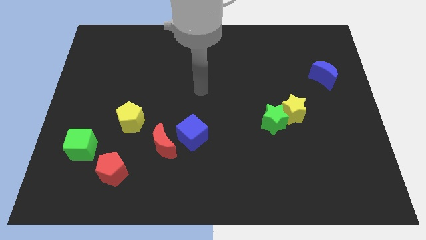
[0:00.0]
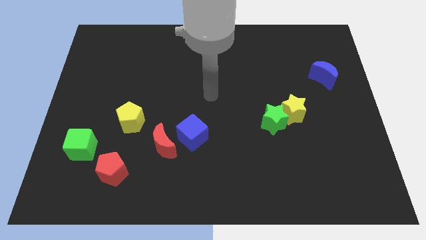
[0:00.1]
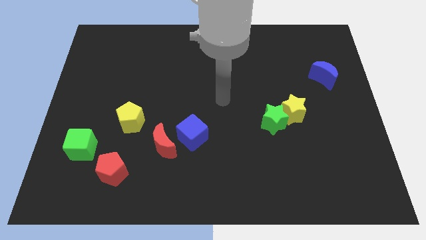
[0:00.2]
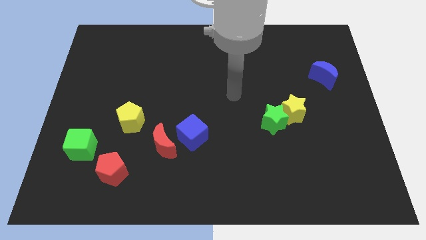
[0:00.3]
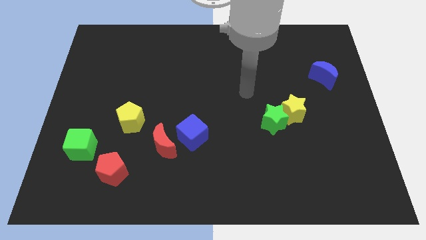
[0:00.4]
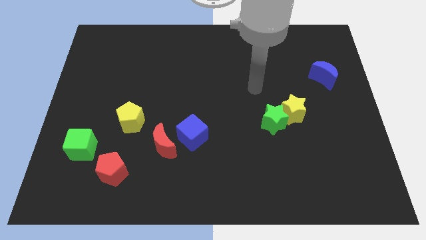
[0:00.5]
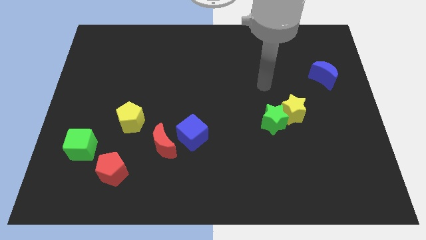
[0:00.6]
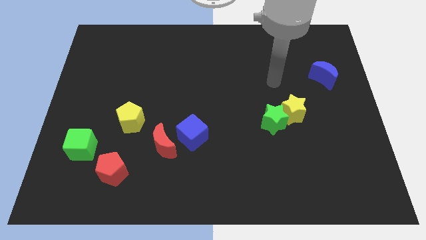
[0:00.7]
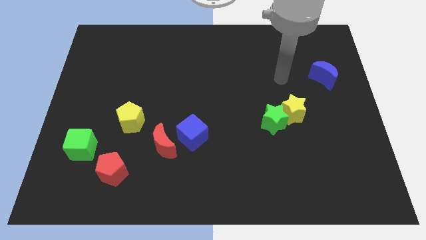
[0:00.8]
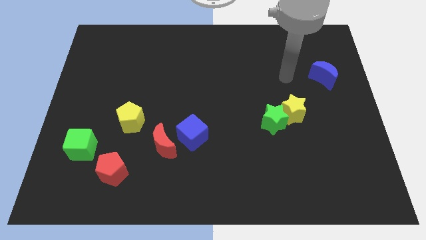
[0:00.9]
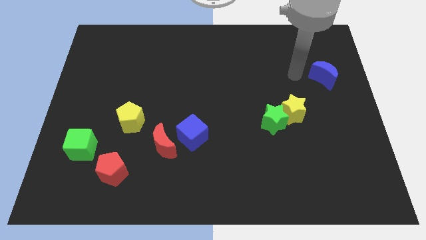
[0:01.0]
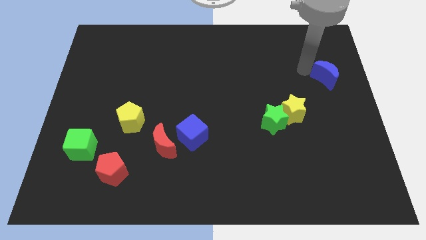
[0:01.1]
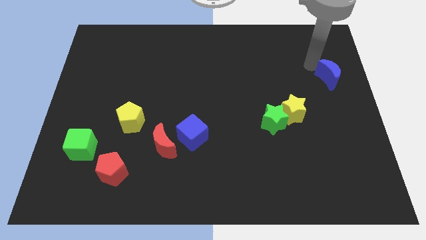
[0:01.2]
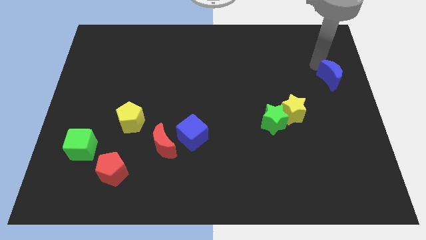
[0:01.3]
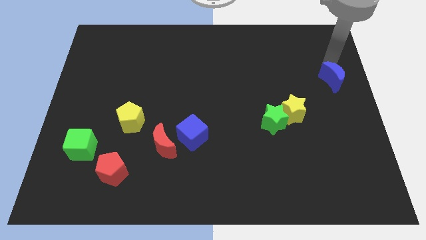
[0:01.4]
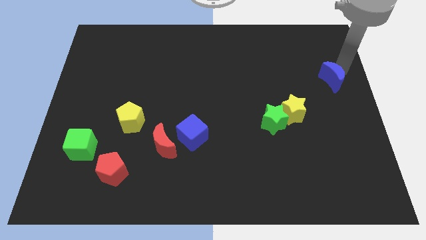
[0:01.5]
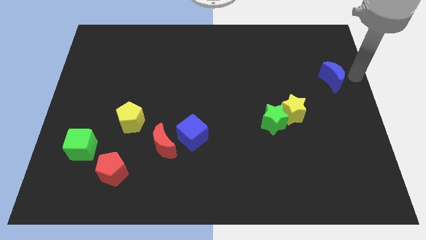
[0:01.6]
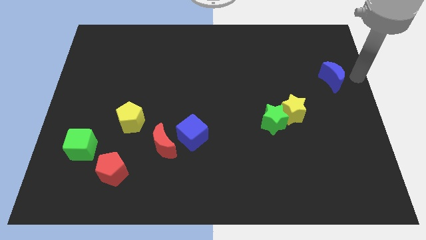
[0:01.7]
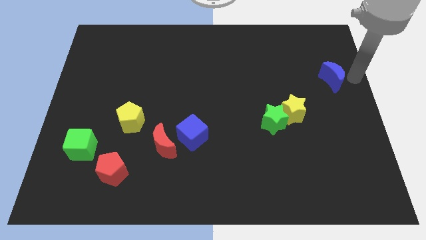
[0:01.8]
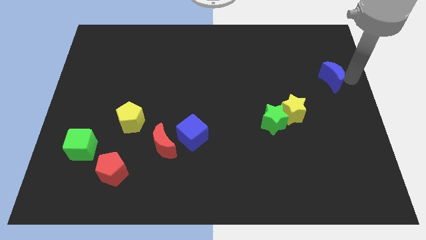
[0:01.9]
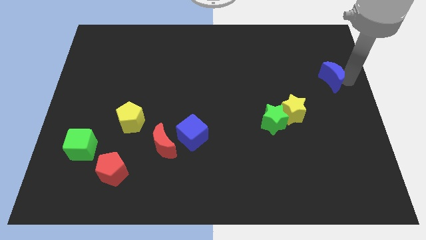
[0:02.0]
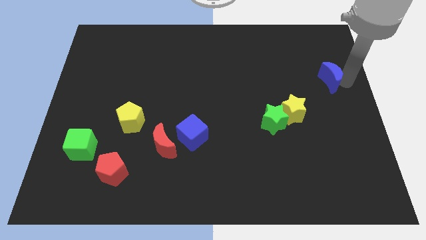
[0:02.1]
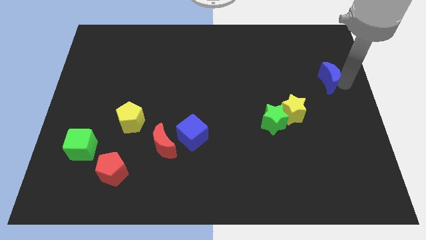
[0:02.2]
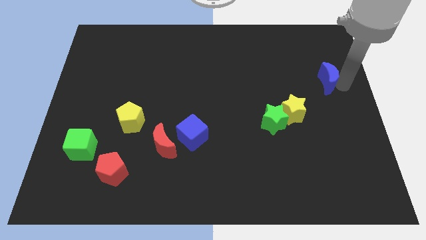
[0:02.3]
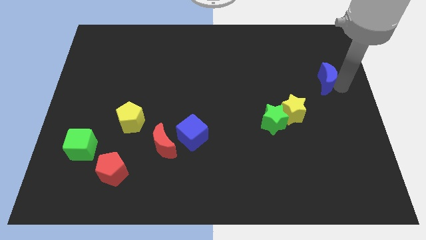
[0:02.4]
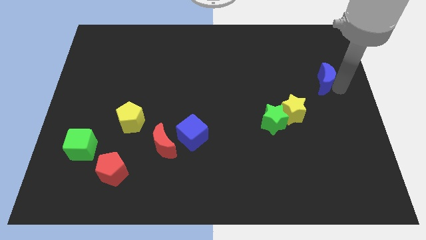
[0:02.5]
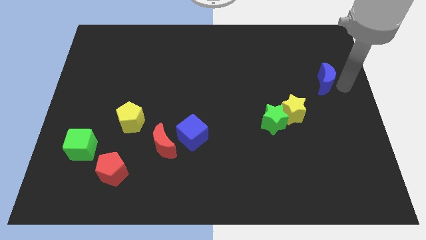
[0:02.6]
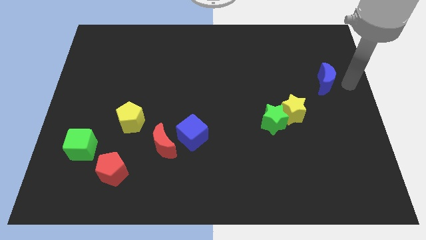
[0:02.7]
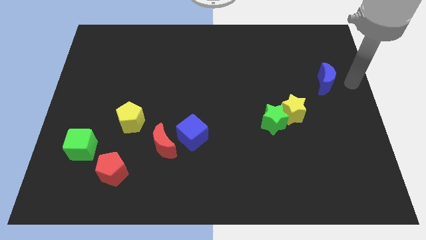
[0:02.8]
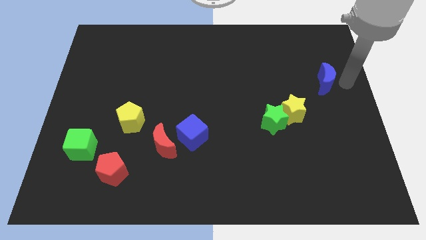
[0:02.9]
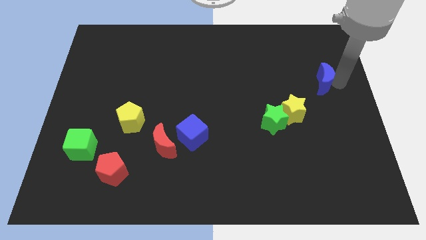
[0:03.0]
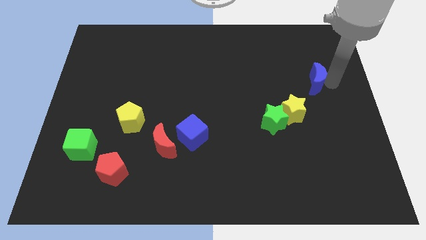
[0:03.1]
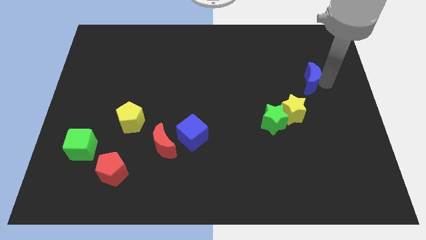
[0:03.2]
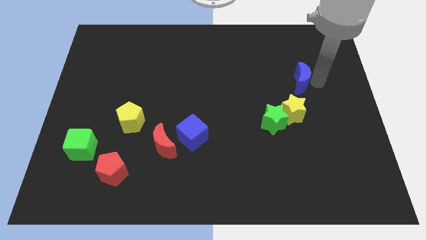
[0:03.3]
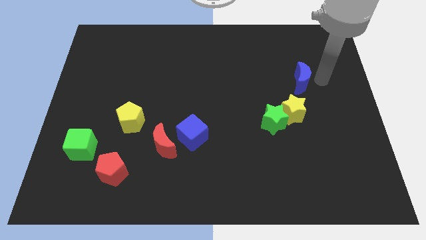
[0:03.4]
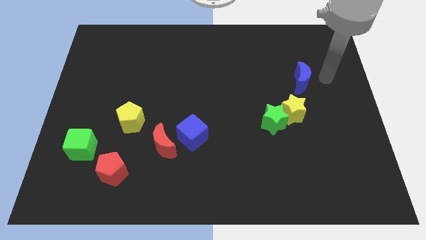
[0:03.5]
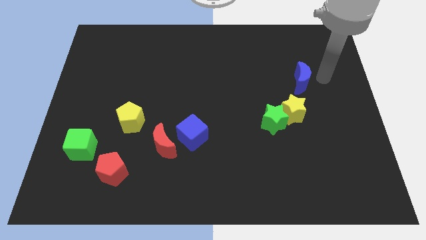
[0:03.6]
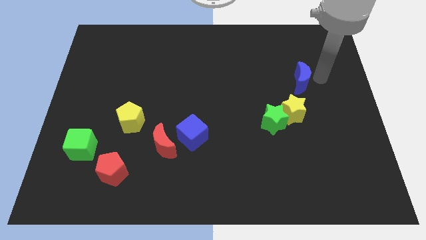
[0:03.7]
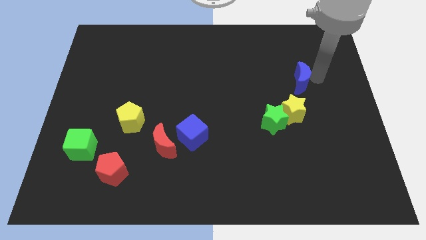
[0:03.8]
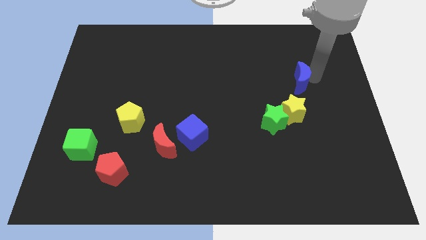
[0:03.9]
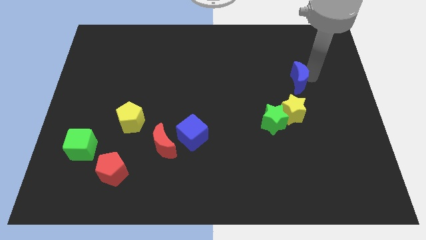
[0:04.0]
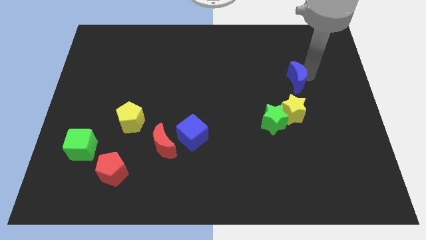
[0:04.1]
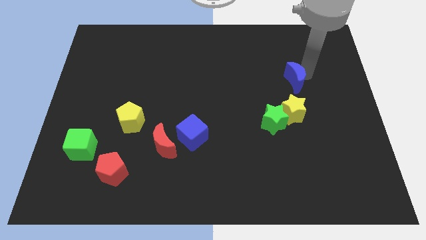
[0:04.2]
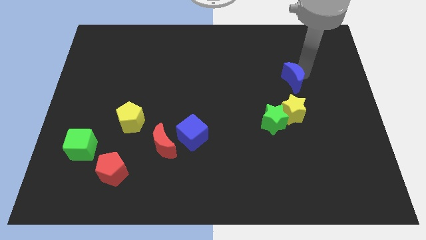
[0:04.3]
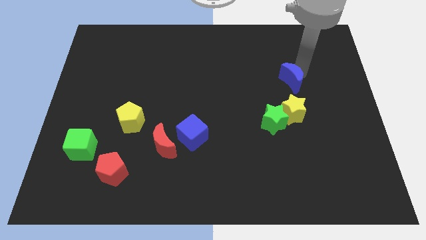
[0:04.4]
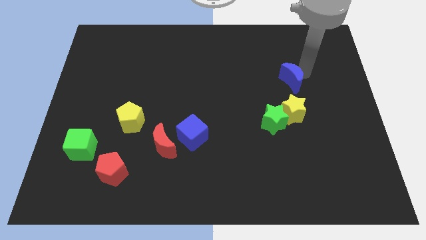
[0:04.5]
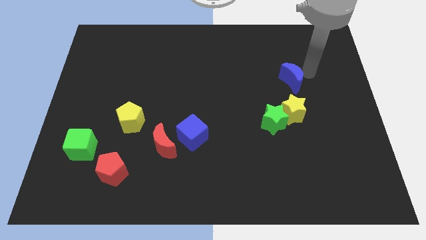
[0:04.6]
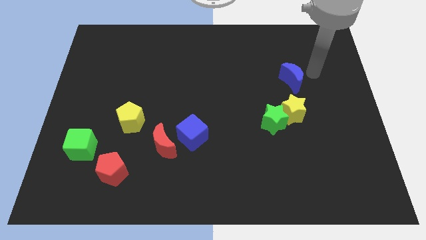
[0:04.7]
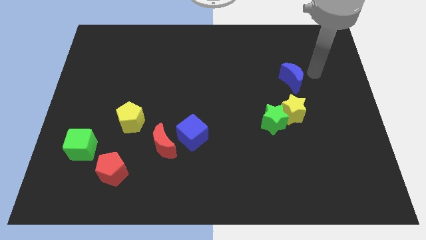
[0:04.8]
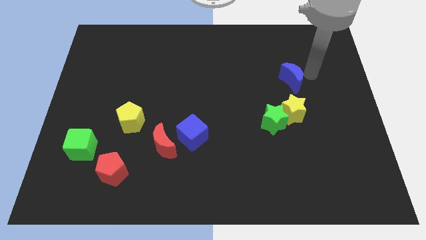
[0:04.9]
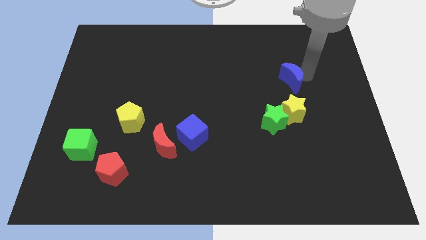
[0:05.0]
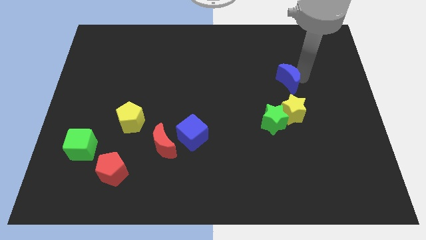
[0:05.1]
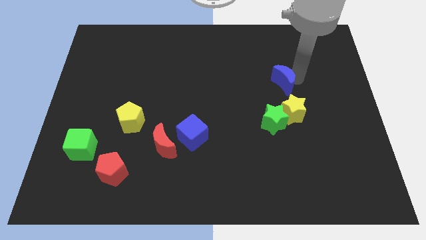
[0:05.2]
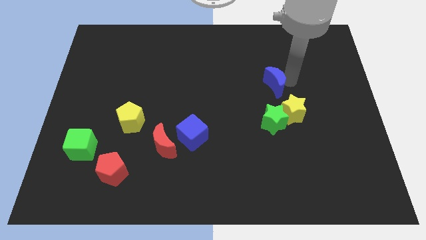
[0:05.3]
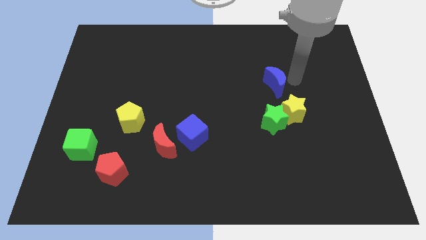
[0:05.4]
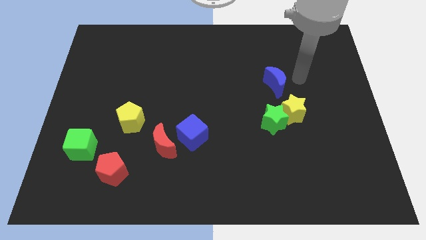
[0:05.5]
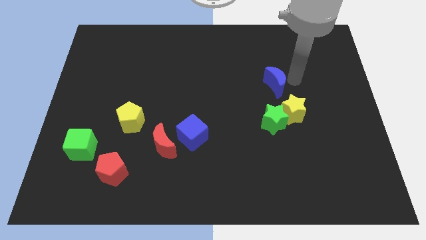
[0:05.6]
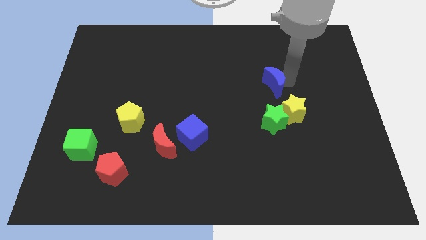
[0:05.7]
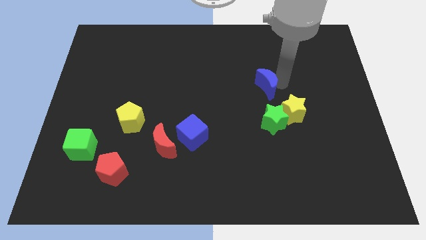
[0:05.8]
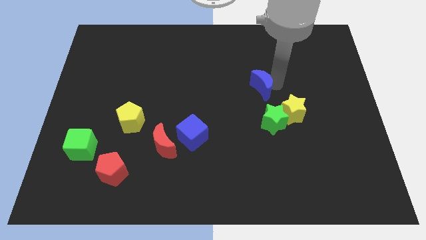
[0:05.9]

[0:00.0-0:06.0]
move the blue moon to the middle

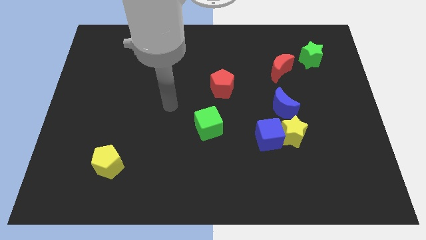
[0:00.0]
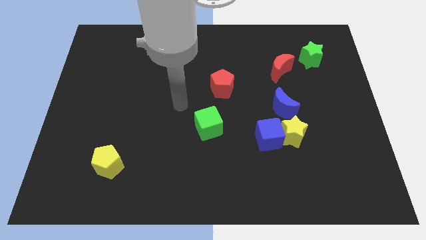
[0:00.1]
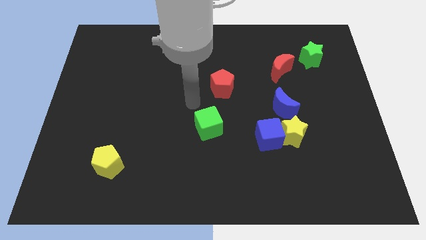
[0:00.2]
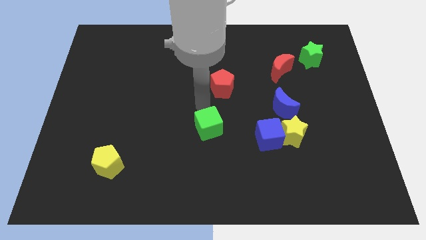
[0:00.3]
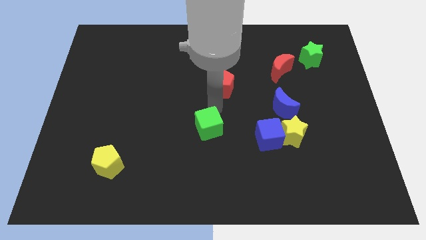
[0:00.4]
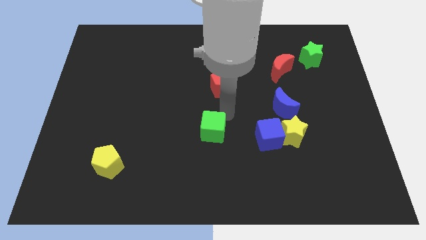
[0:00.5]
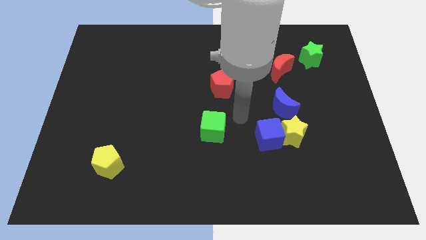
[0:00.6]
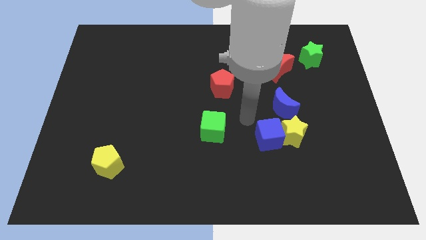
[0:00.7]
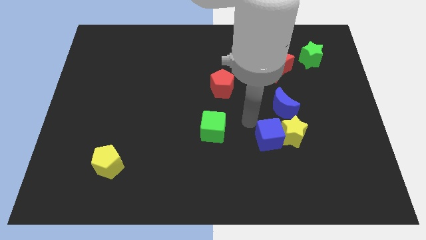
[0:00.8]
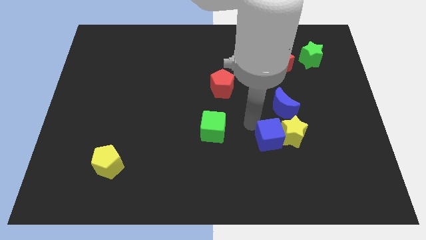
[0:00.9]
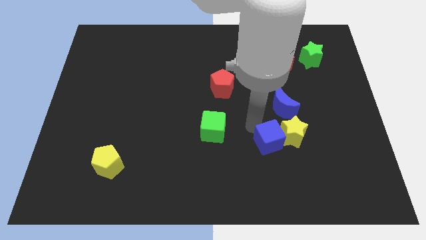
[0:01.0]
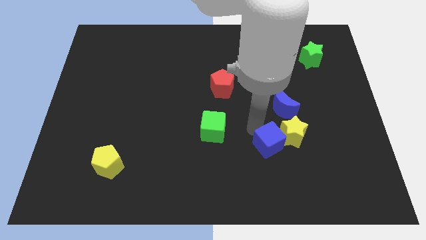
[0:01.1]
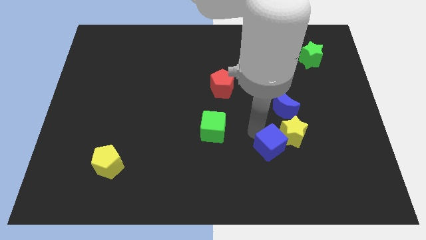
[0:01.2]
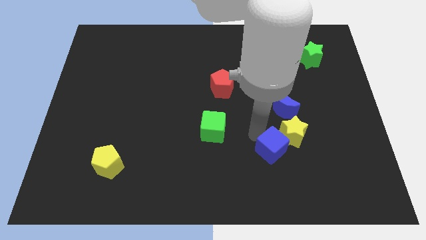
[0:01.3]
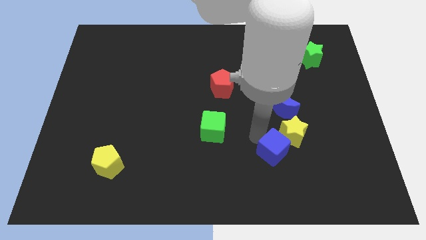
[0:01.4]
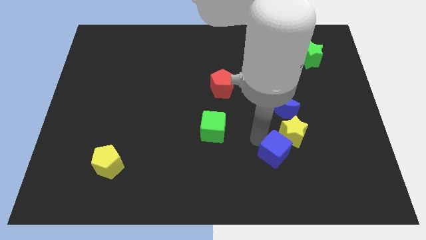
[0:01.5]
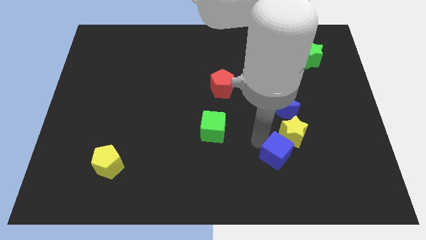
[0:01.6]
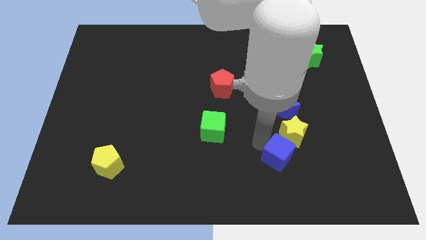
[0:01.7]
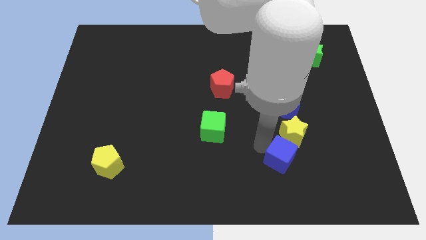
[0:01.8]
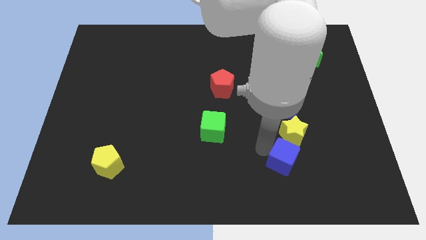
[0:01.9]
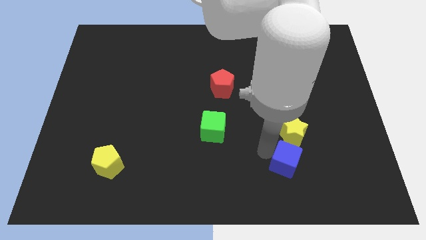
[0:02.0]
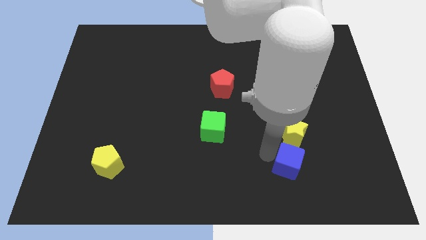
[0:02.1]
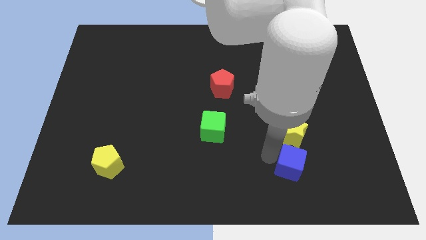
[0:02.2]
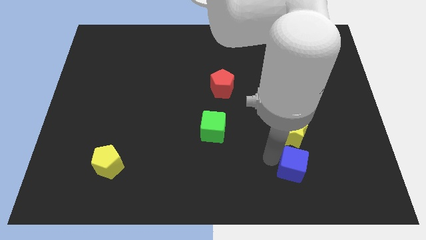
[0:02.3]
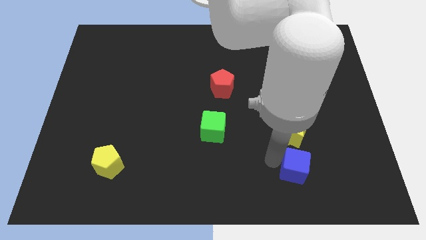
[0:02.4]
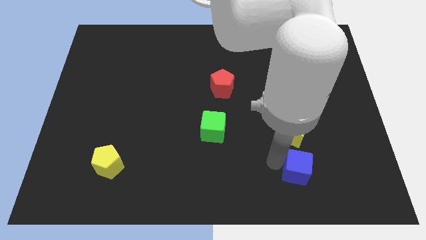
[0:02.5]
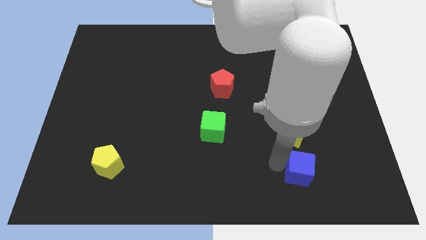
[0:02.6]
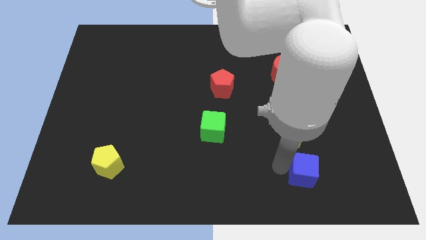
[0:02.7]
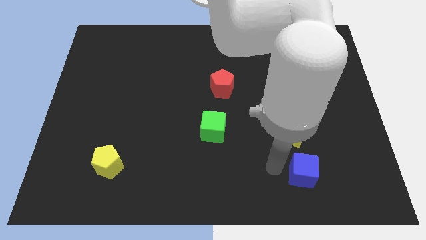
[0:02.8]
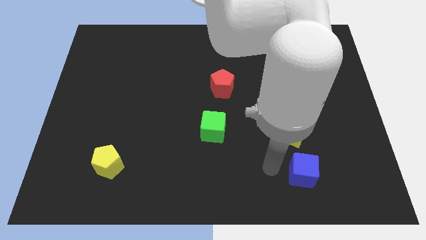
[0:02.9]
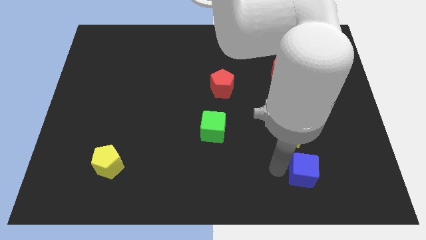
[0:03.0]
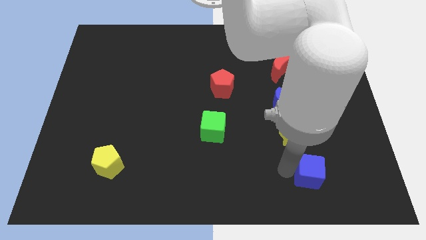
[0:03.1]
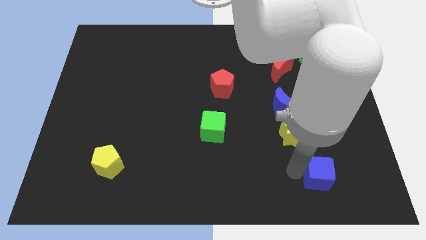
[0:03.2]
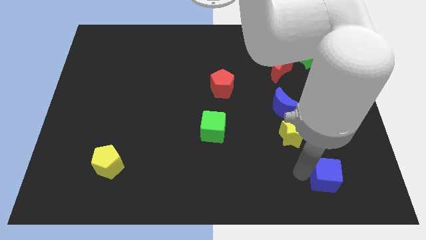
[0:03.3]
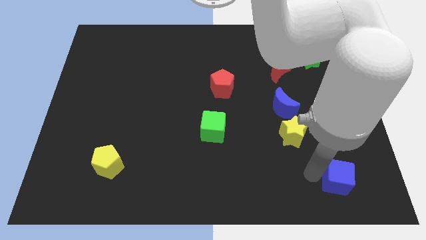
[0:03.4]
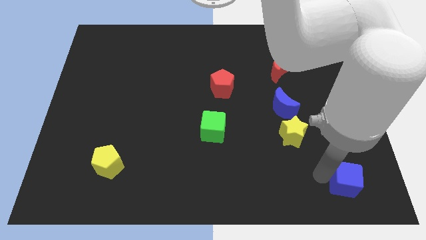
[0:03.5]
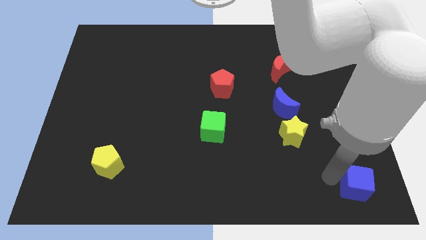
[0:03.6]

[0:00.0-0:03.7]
slide the blue cube to the bottom right
